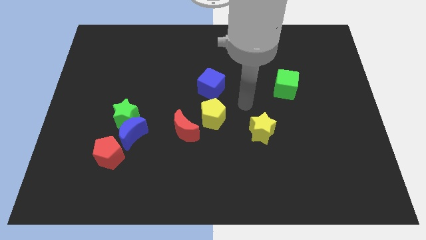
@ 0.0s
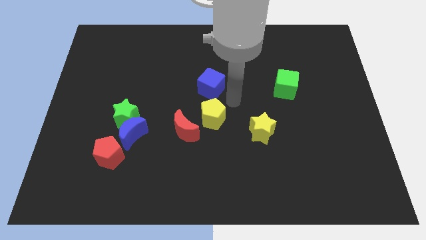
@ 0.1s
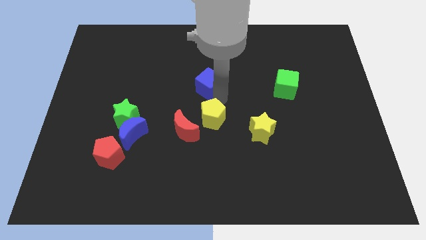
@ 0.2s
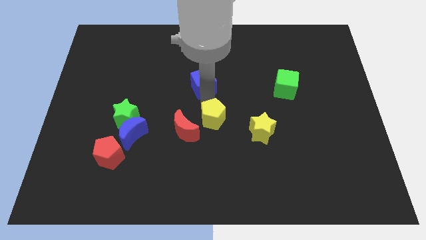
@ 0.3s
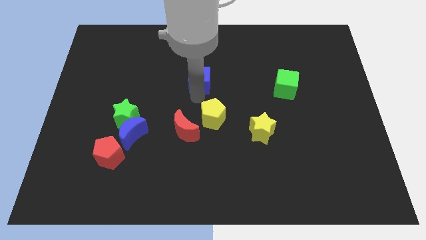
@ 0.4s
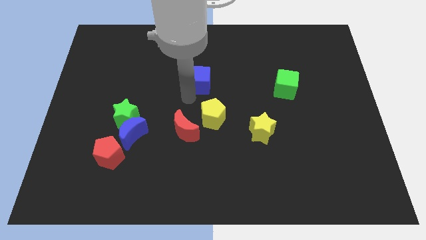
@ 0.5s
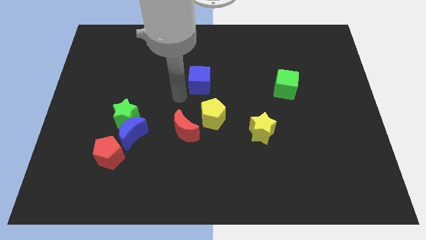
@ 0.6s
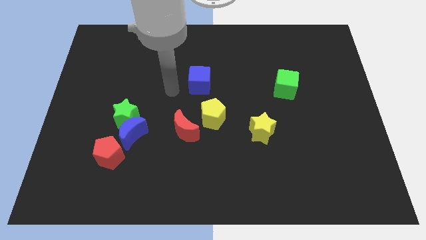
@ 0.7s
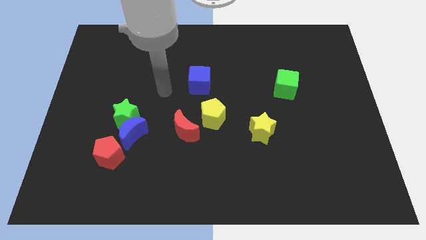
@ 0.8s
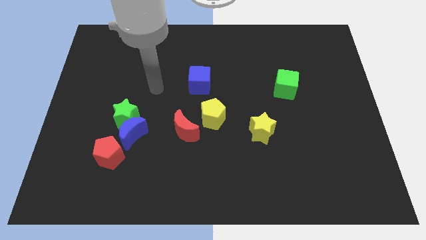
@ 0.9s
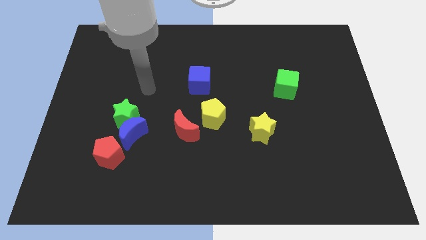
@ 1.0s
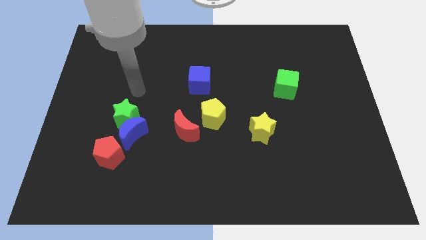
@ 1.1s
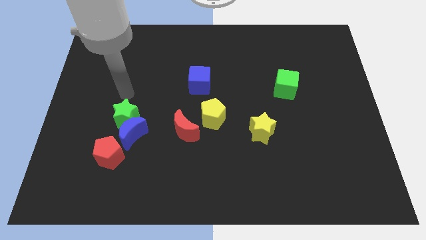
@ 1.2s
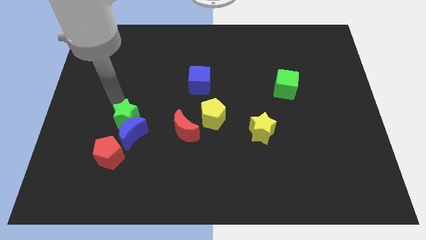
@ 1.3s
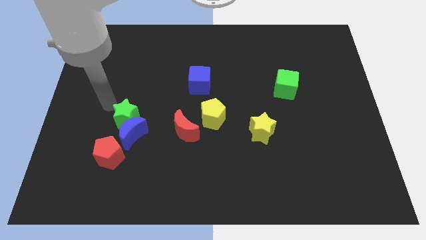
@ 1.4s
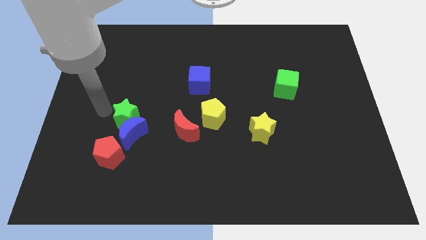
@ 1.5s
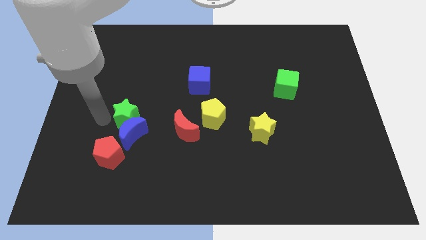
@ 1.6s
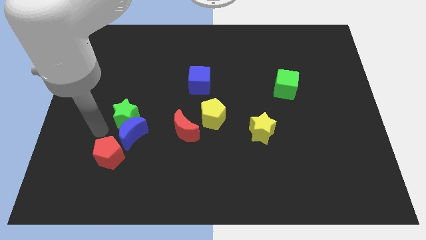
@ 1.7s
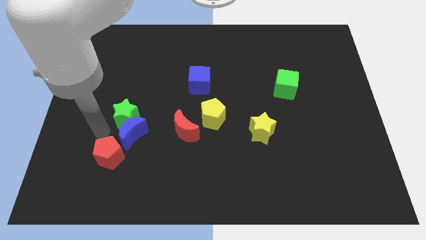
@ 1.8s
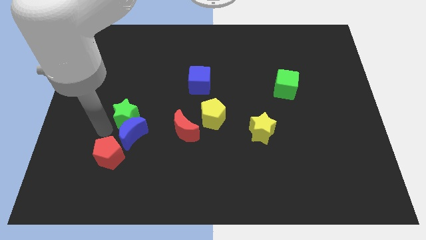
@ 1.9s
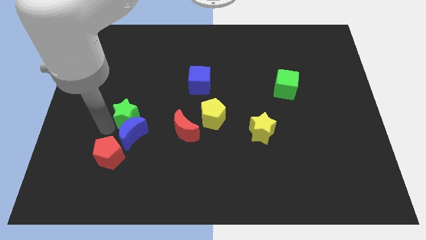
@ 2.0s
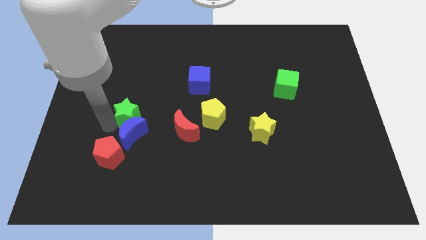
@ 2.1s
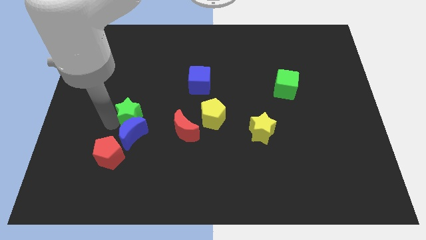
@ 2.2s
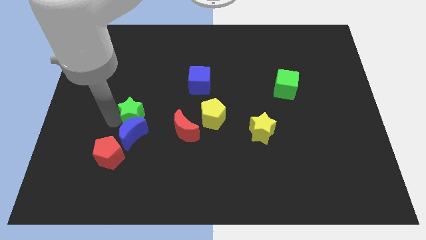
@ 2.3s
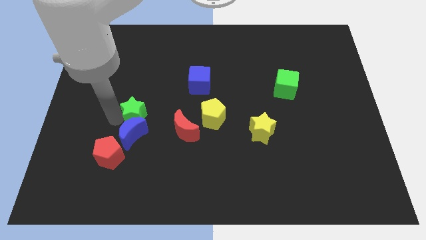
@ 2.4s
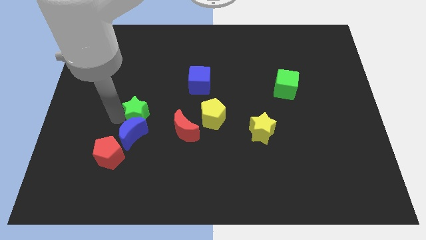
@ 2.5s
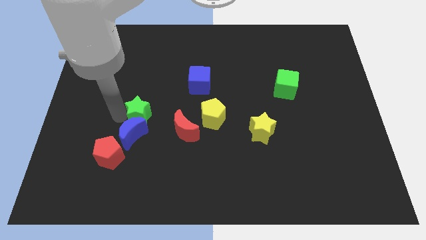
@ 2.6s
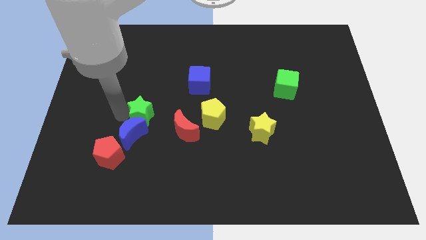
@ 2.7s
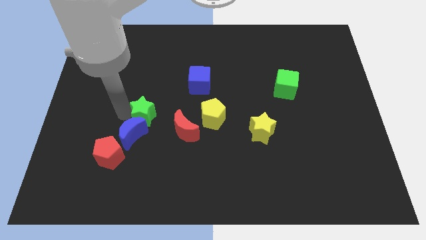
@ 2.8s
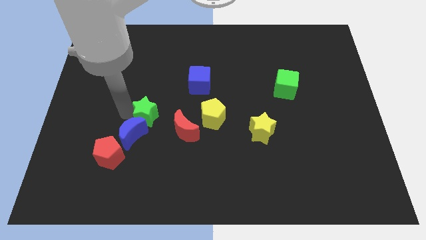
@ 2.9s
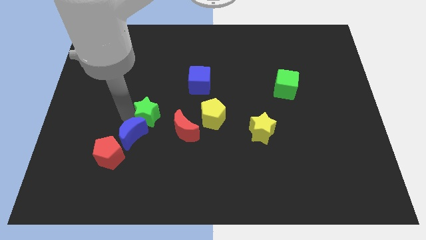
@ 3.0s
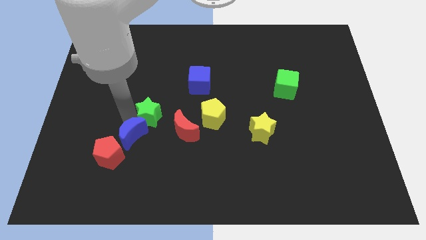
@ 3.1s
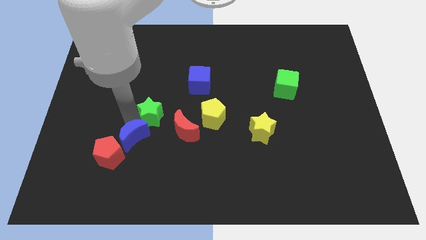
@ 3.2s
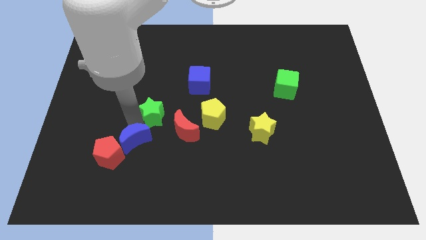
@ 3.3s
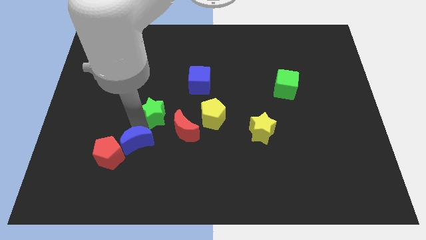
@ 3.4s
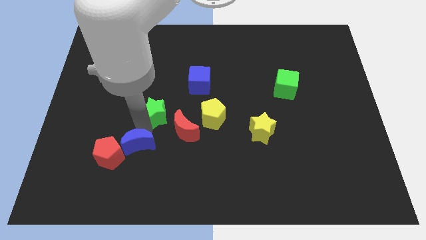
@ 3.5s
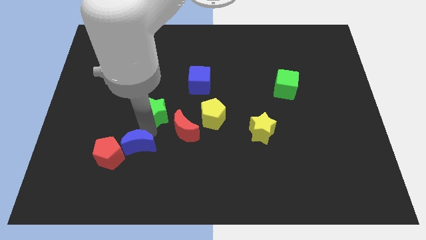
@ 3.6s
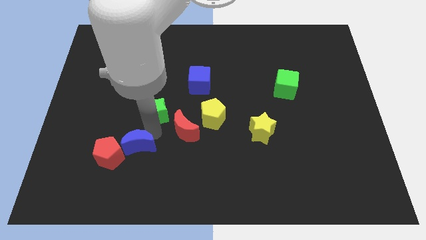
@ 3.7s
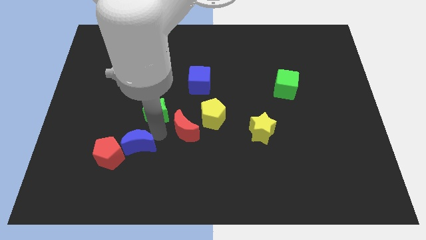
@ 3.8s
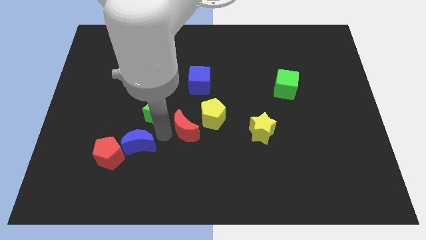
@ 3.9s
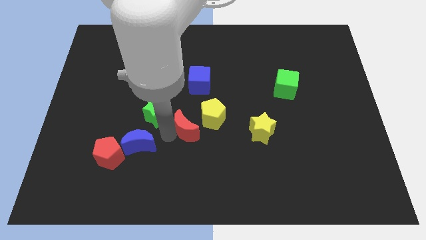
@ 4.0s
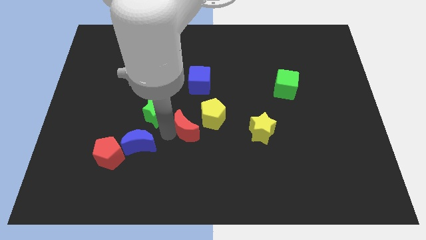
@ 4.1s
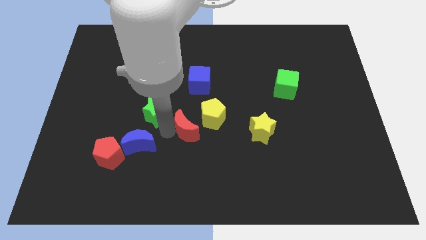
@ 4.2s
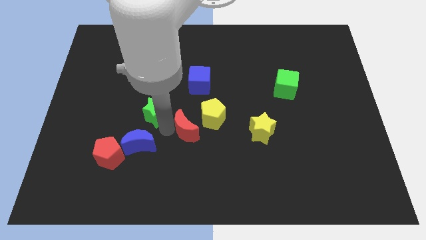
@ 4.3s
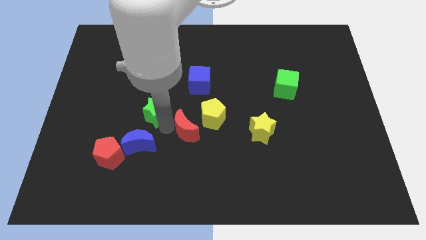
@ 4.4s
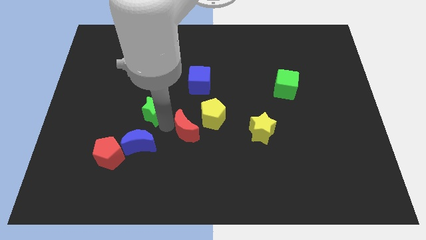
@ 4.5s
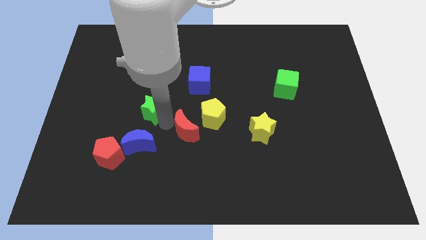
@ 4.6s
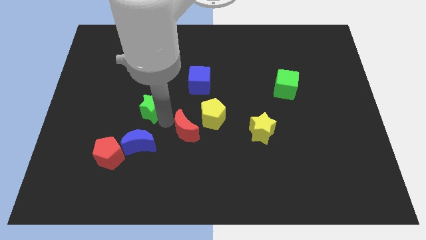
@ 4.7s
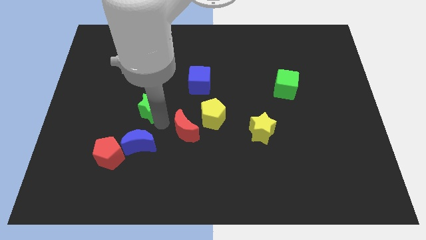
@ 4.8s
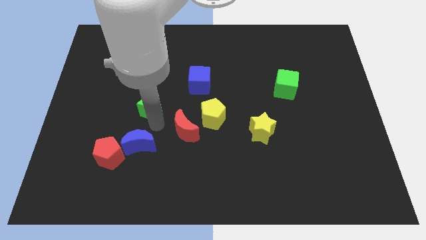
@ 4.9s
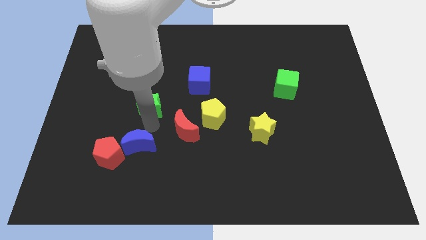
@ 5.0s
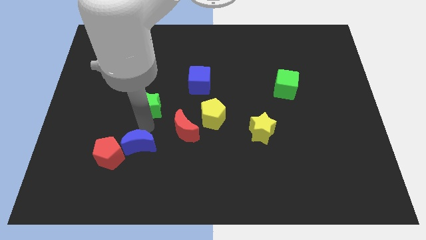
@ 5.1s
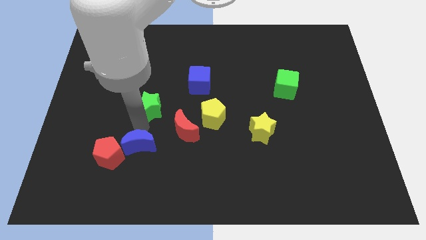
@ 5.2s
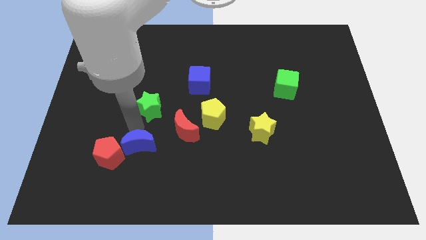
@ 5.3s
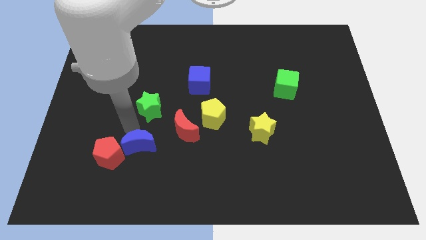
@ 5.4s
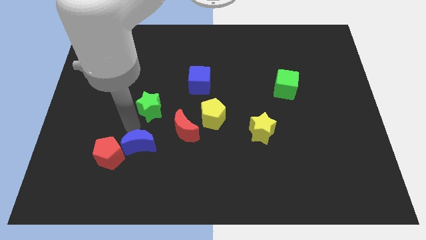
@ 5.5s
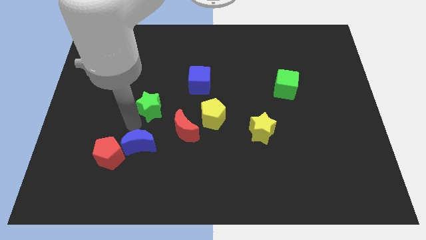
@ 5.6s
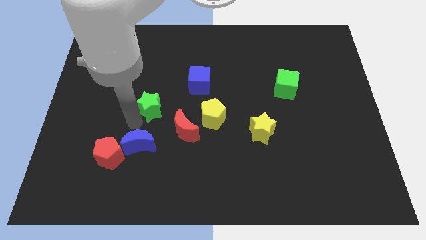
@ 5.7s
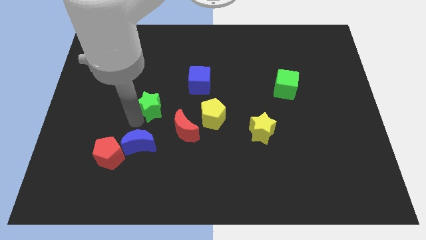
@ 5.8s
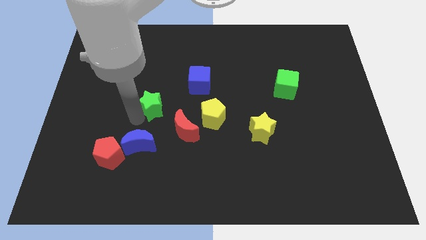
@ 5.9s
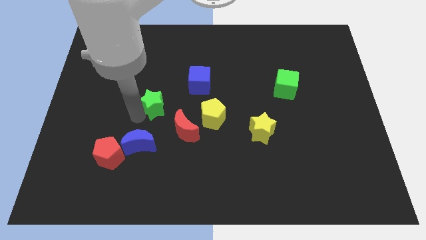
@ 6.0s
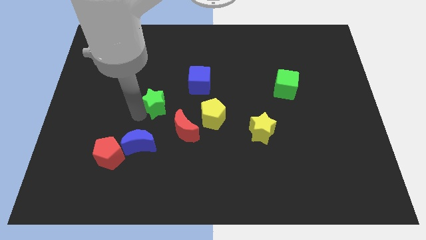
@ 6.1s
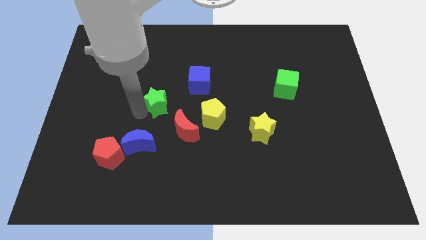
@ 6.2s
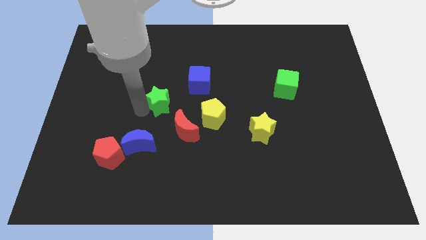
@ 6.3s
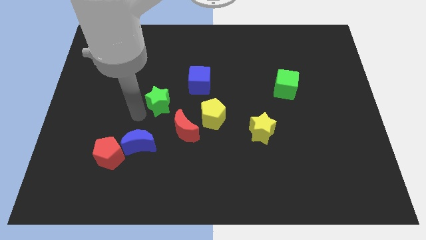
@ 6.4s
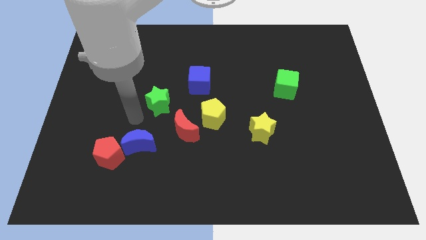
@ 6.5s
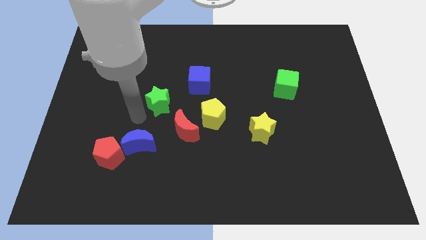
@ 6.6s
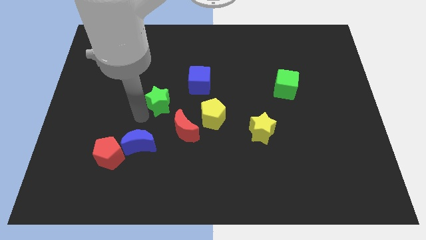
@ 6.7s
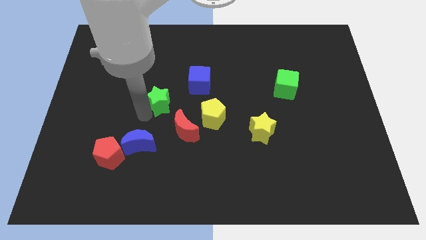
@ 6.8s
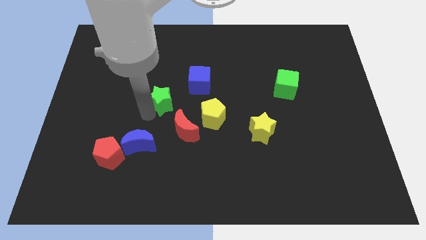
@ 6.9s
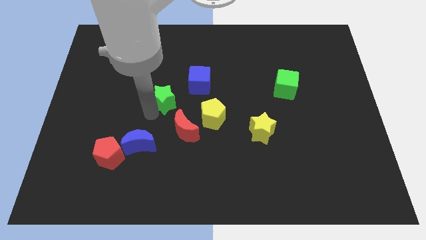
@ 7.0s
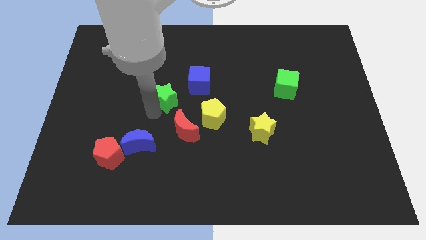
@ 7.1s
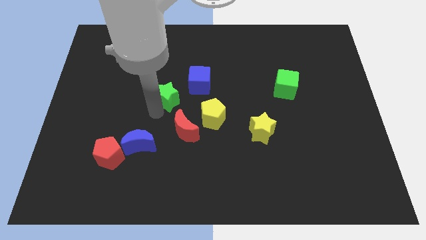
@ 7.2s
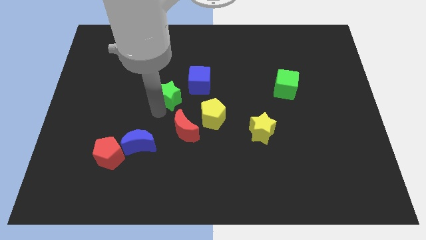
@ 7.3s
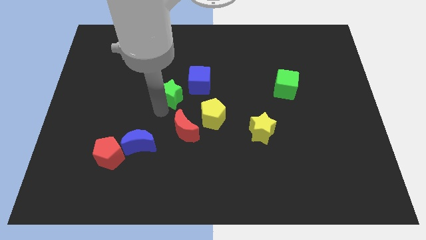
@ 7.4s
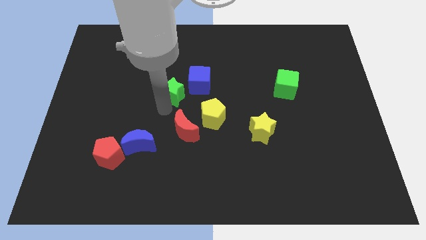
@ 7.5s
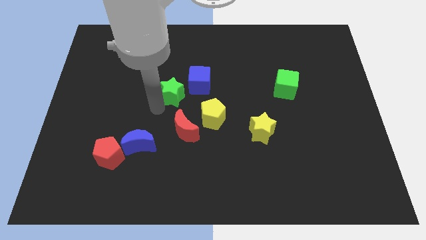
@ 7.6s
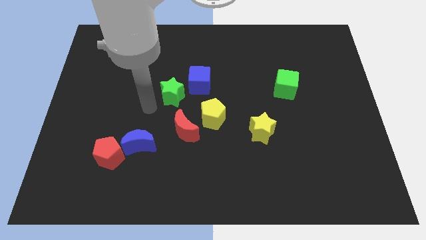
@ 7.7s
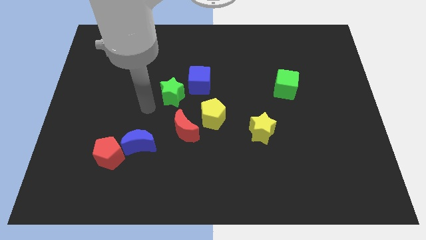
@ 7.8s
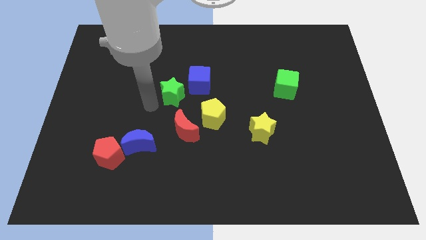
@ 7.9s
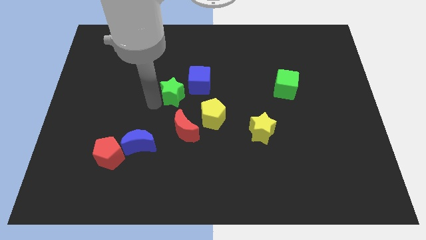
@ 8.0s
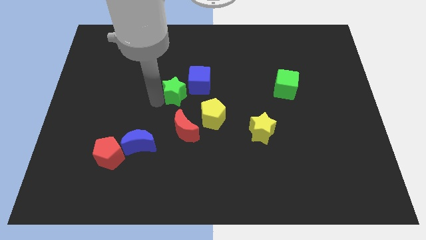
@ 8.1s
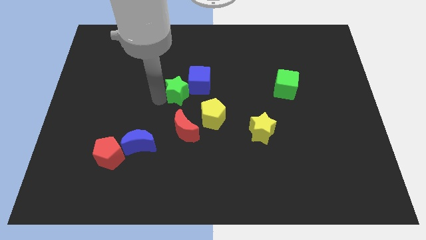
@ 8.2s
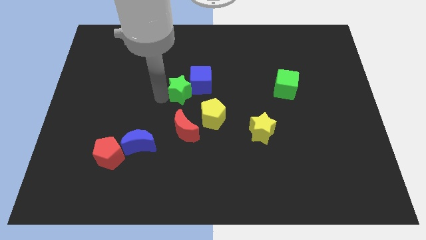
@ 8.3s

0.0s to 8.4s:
push the green star towards the blue cube
